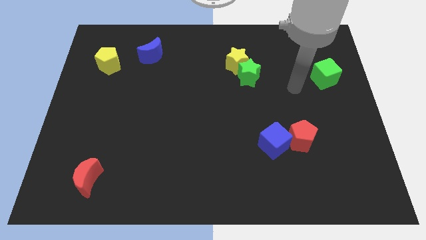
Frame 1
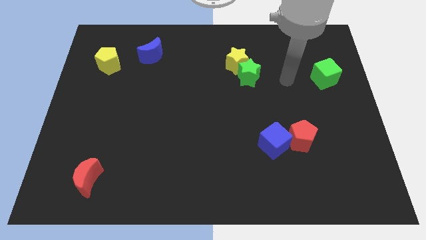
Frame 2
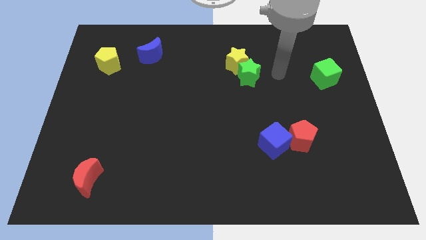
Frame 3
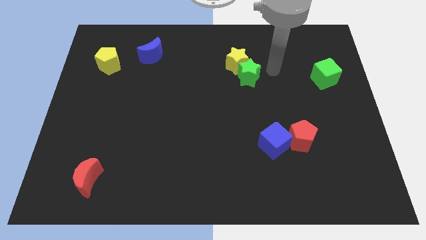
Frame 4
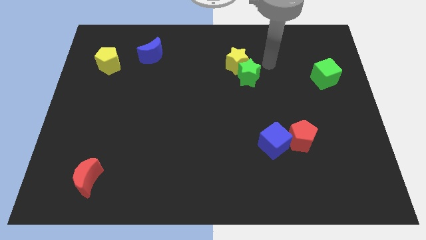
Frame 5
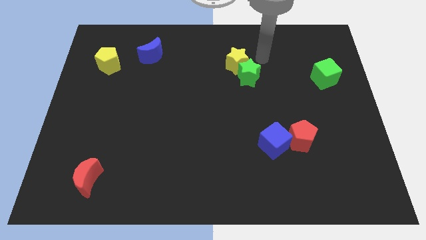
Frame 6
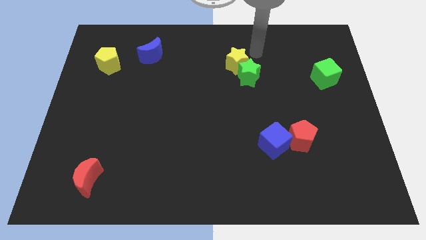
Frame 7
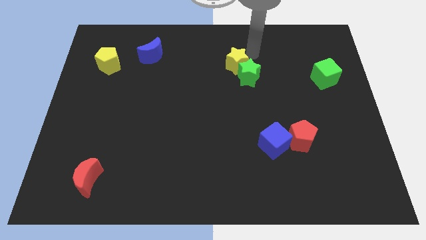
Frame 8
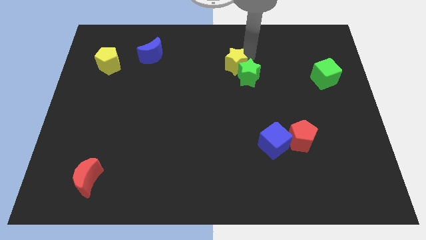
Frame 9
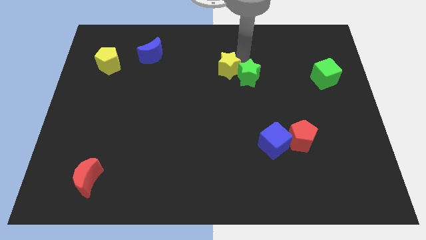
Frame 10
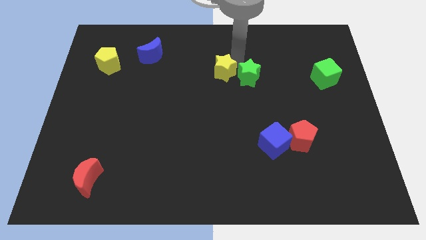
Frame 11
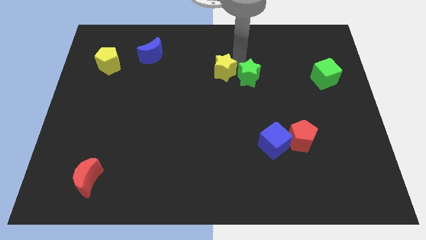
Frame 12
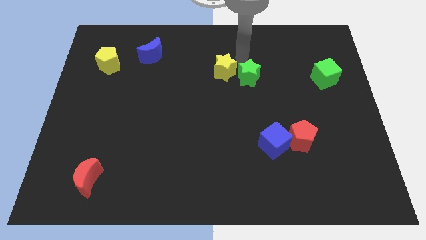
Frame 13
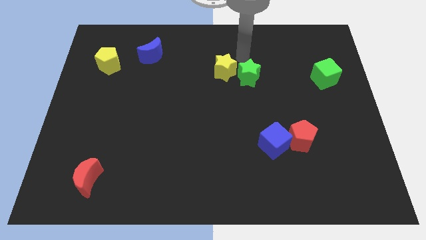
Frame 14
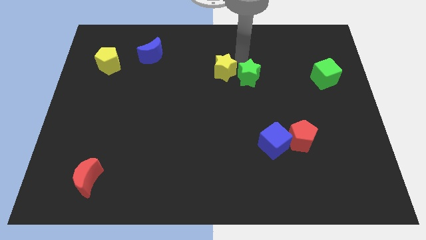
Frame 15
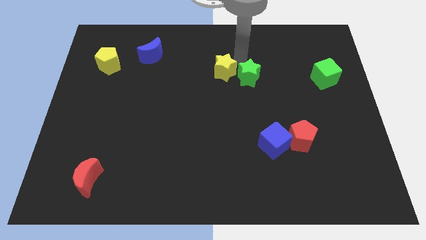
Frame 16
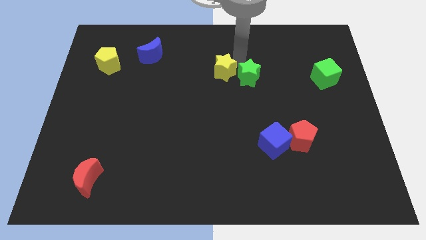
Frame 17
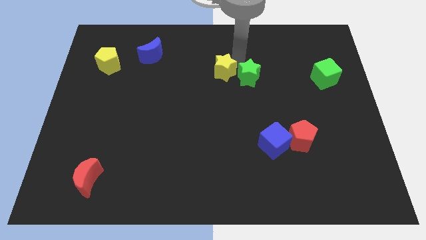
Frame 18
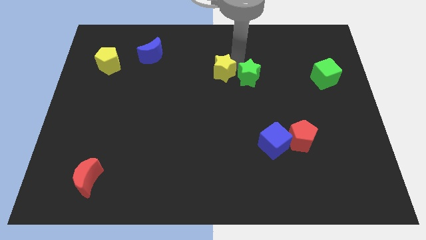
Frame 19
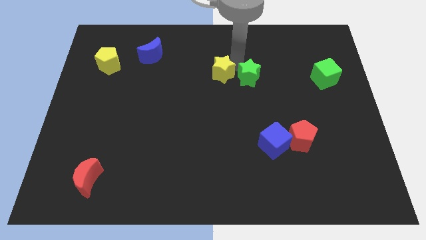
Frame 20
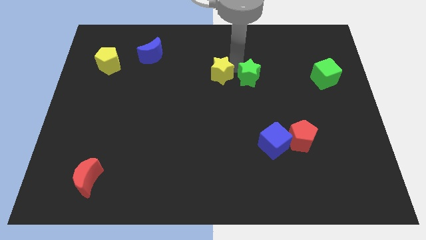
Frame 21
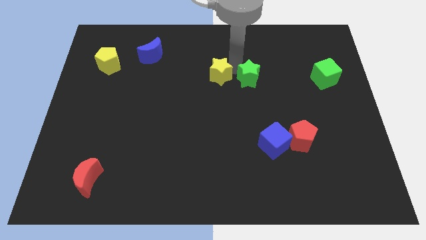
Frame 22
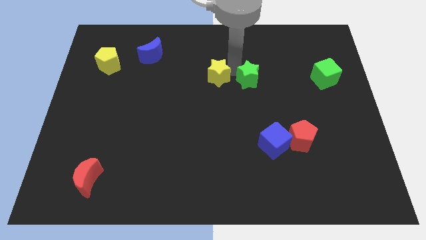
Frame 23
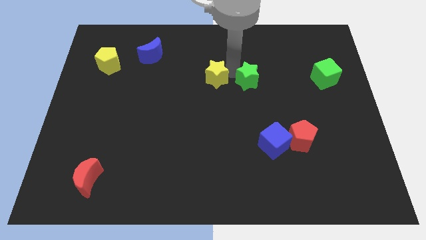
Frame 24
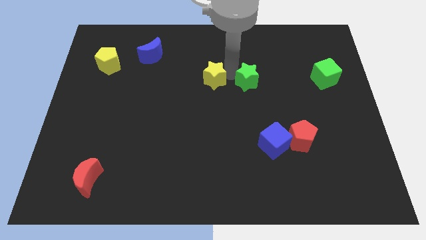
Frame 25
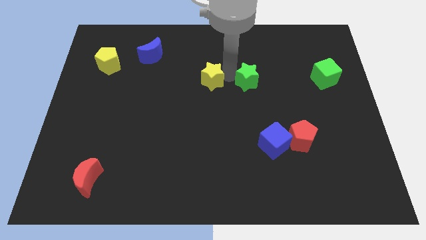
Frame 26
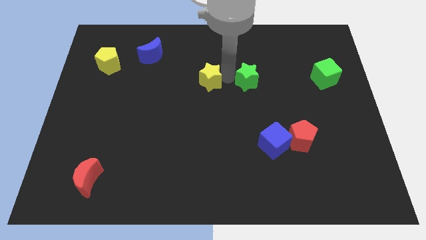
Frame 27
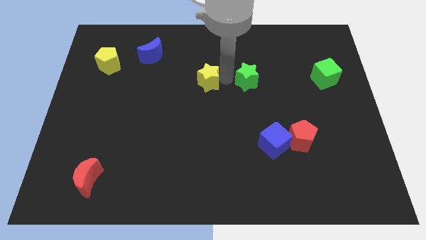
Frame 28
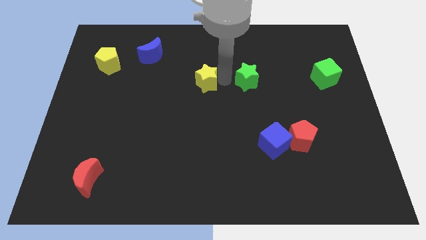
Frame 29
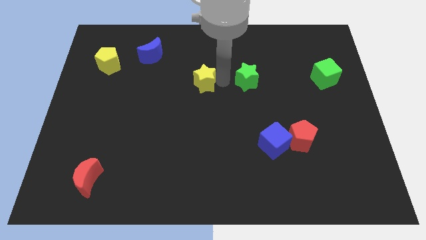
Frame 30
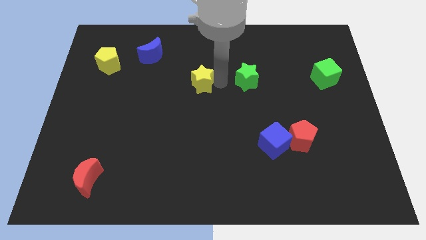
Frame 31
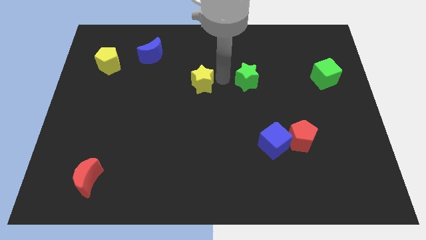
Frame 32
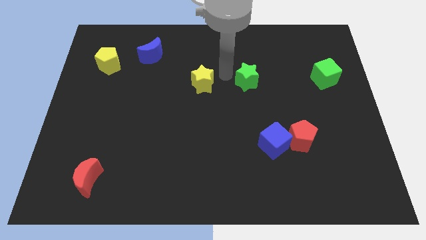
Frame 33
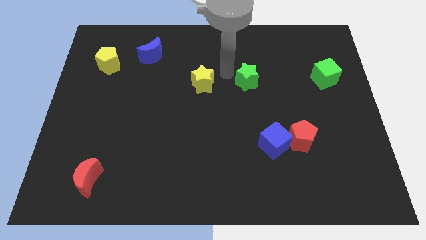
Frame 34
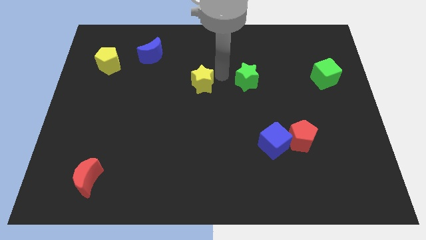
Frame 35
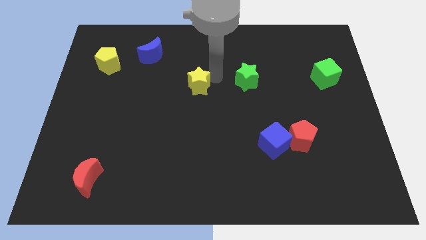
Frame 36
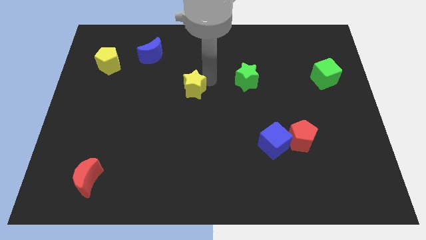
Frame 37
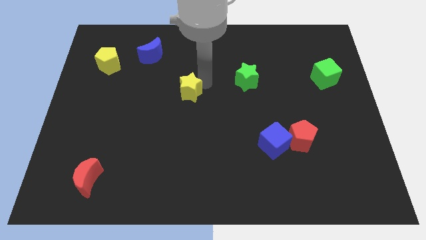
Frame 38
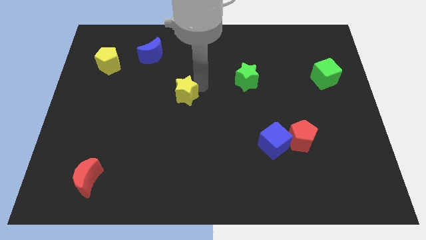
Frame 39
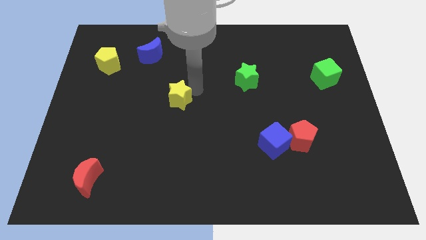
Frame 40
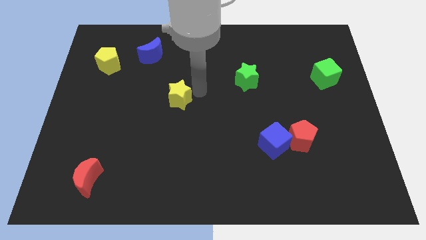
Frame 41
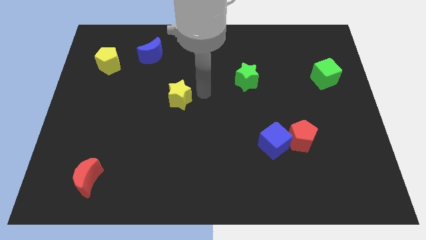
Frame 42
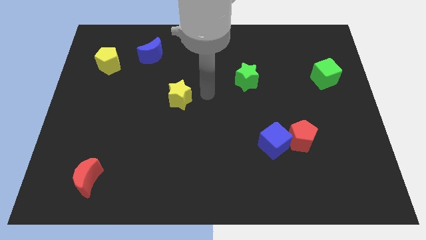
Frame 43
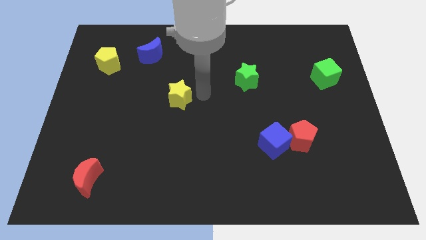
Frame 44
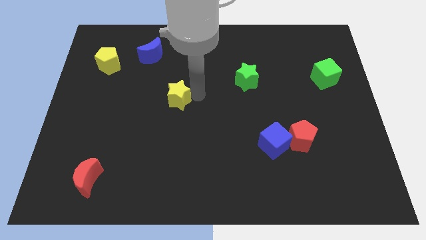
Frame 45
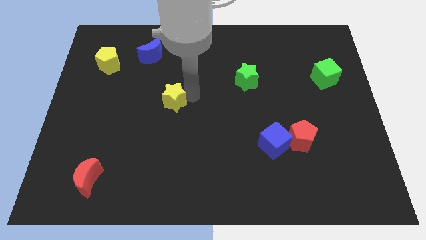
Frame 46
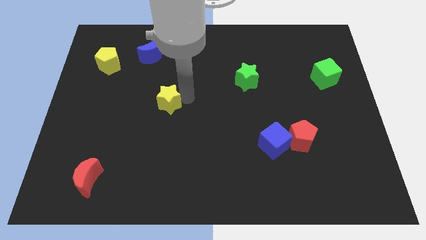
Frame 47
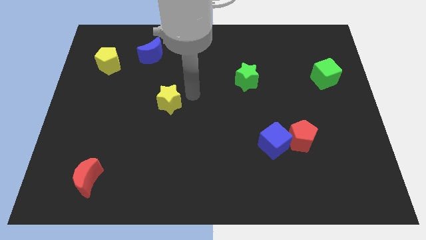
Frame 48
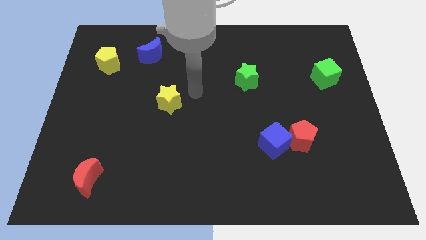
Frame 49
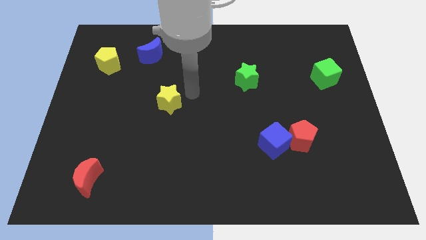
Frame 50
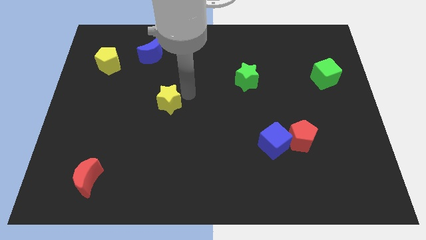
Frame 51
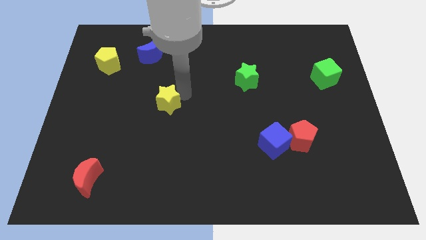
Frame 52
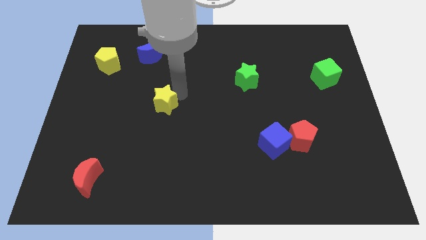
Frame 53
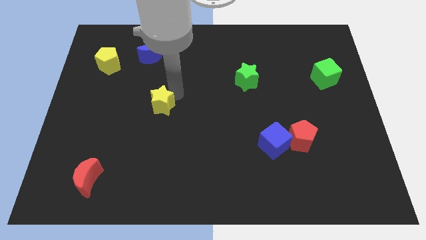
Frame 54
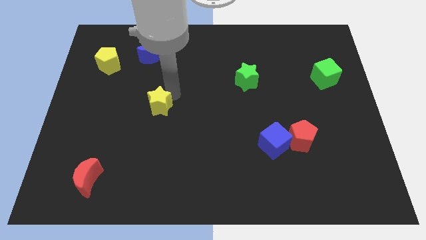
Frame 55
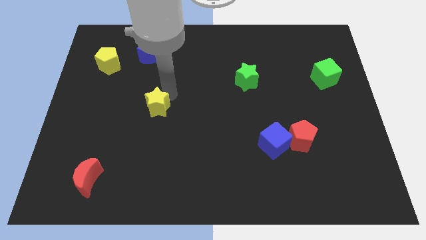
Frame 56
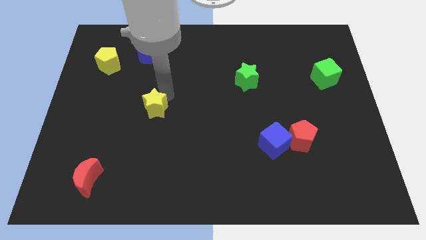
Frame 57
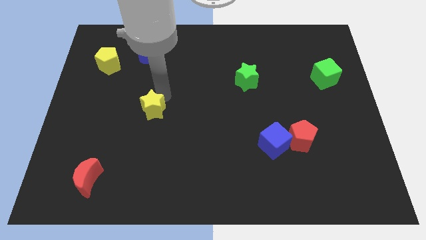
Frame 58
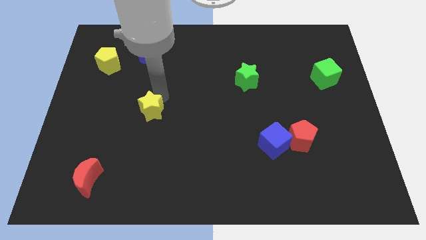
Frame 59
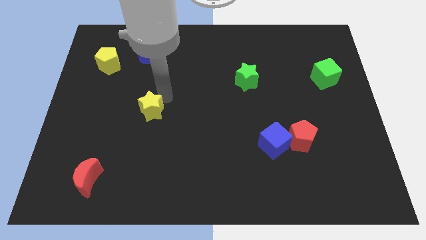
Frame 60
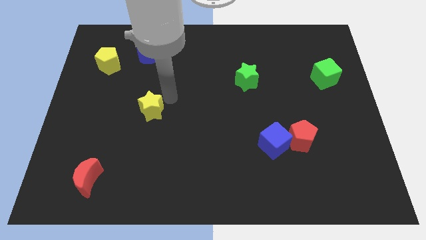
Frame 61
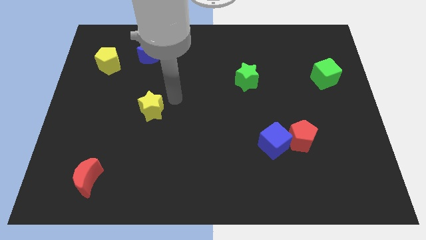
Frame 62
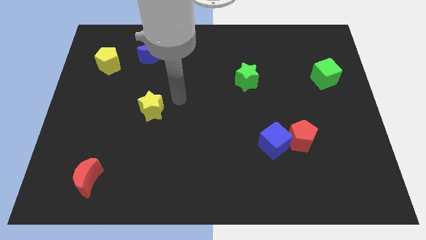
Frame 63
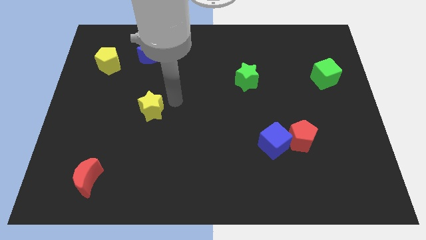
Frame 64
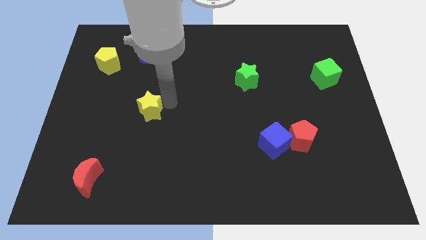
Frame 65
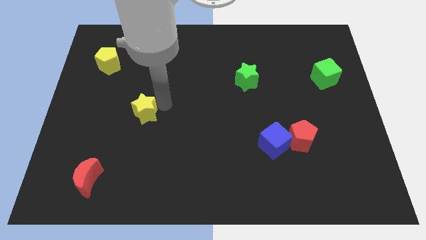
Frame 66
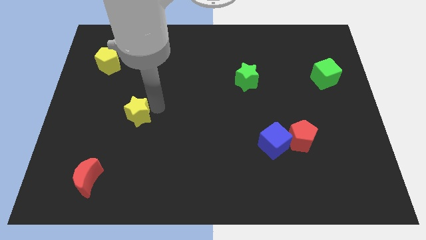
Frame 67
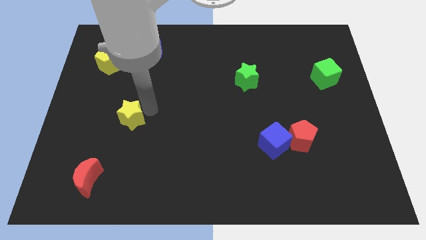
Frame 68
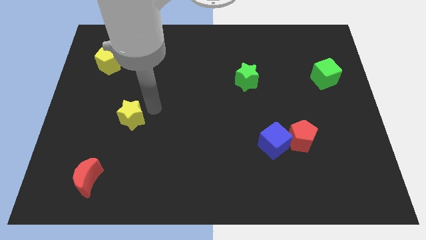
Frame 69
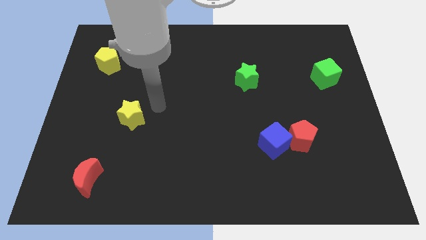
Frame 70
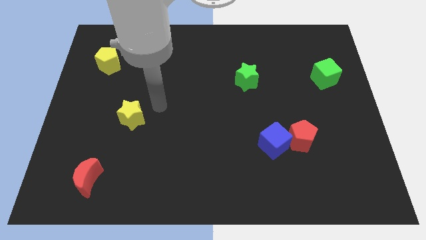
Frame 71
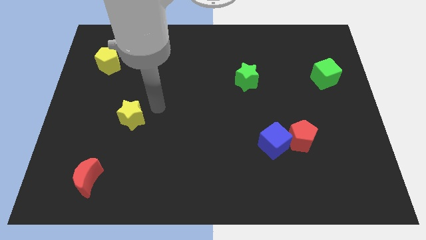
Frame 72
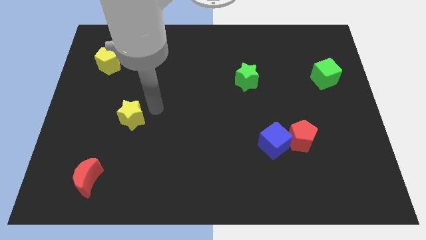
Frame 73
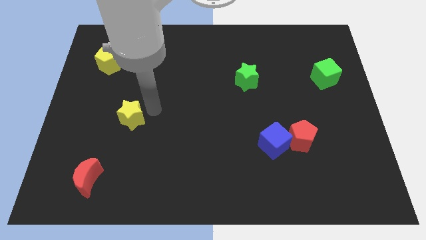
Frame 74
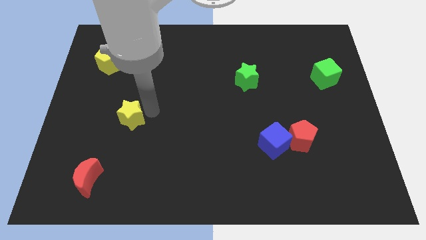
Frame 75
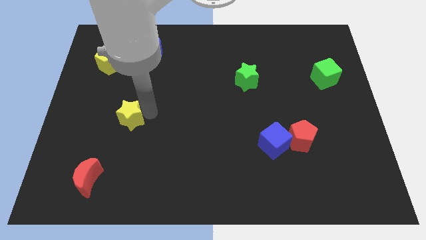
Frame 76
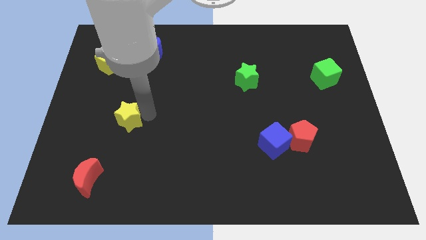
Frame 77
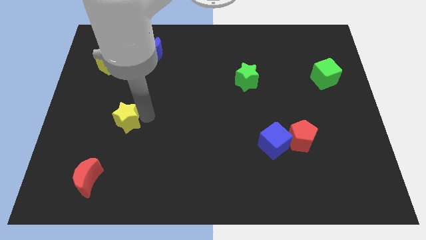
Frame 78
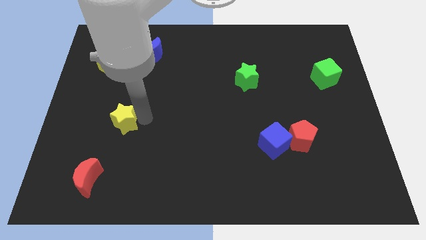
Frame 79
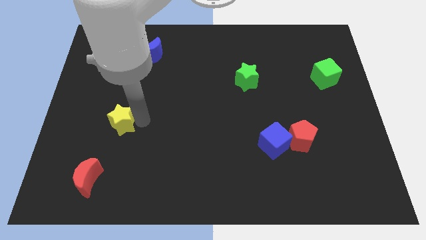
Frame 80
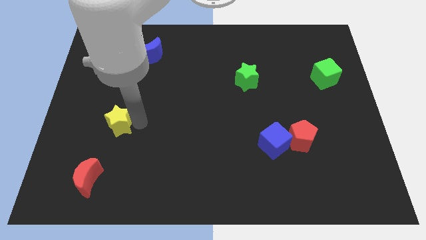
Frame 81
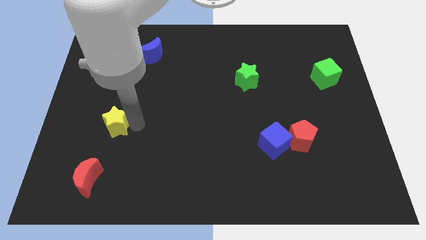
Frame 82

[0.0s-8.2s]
slide the yellow star to the top of the red moon
